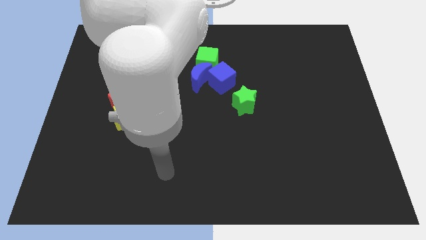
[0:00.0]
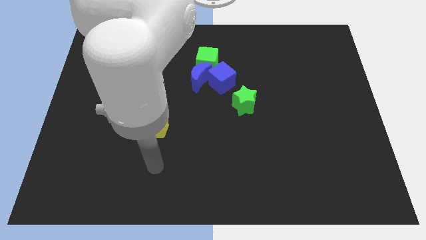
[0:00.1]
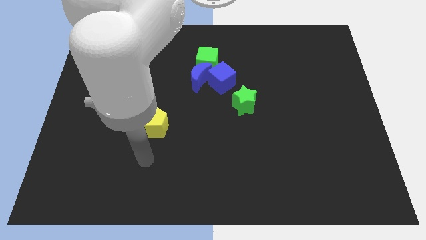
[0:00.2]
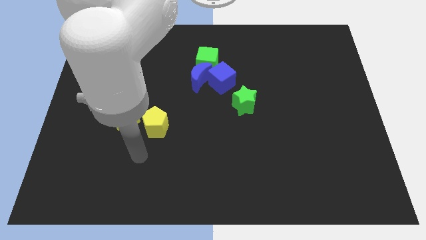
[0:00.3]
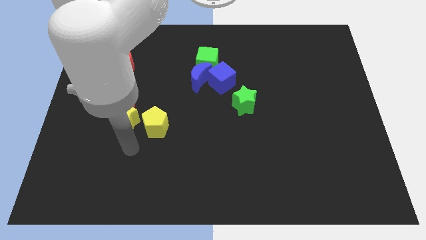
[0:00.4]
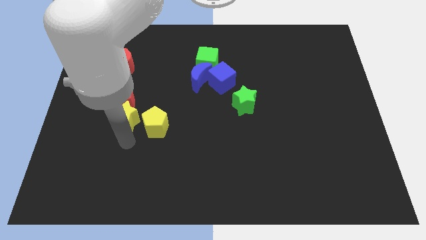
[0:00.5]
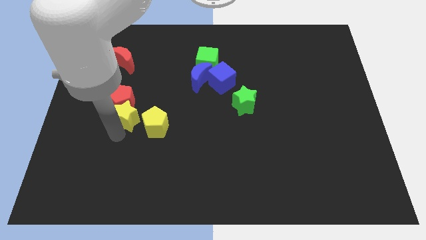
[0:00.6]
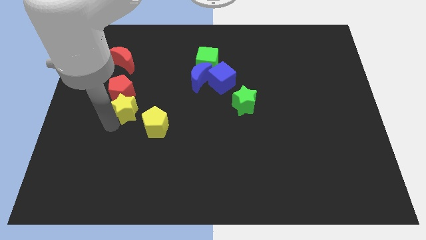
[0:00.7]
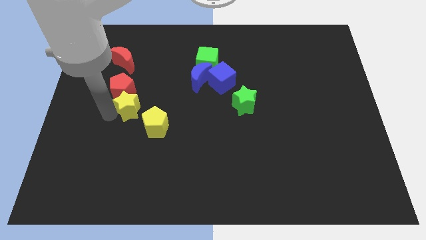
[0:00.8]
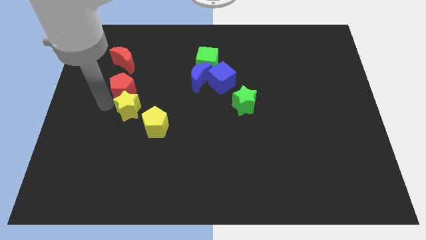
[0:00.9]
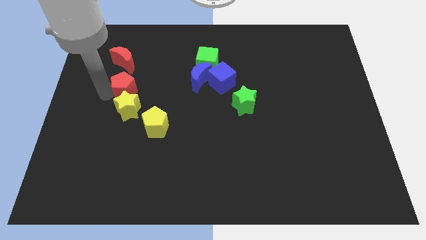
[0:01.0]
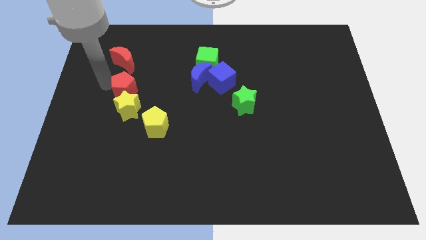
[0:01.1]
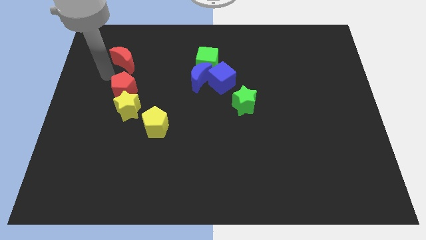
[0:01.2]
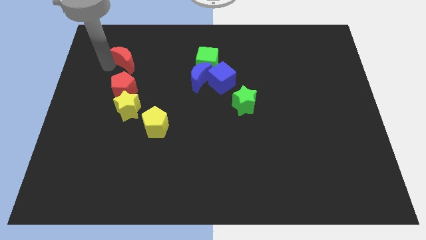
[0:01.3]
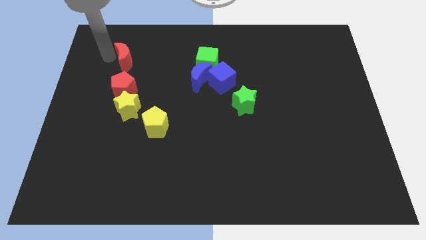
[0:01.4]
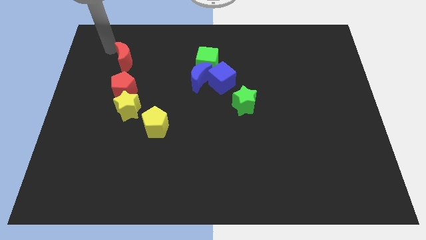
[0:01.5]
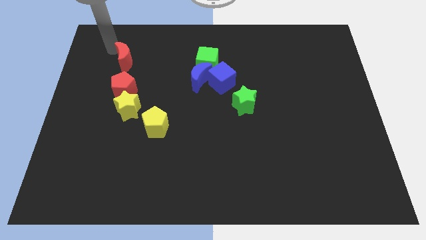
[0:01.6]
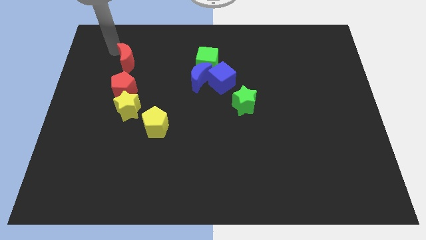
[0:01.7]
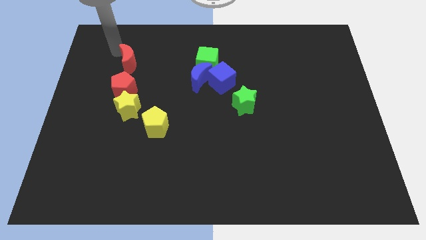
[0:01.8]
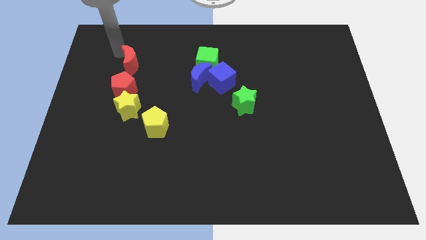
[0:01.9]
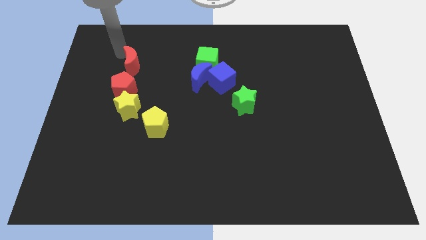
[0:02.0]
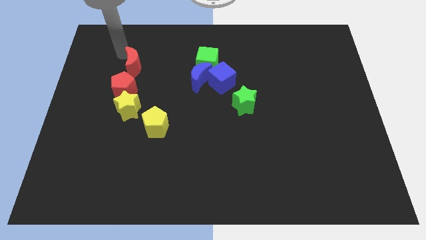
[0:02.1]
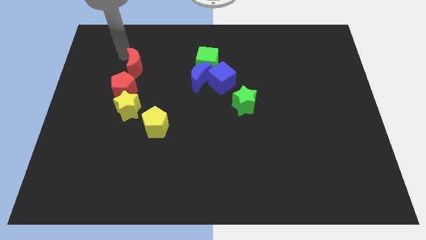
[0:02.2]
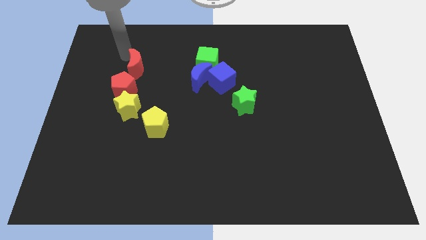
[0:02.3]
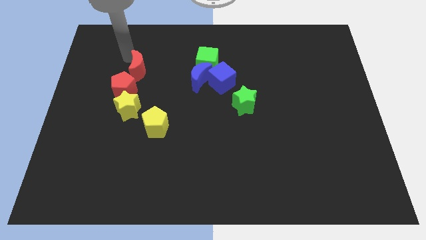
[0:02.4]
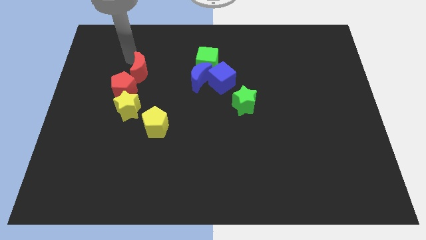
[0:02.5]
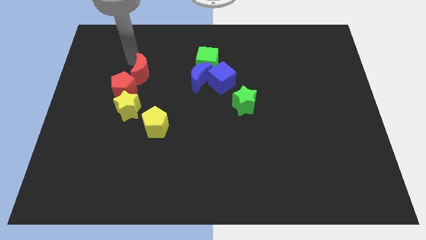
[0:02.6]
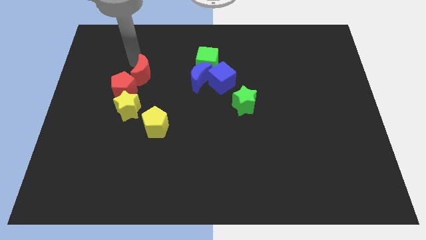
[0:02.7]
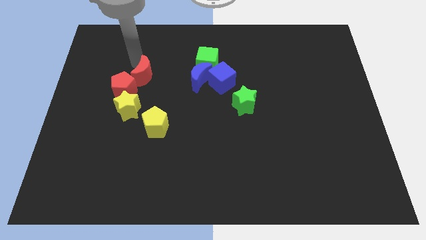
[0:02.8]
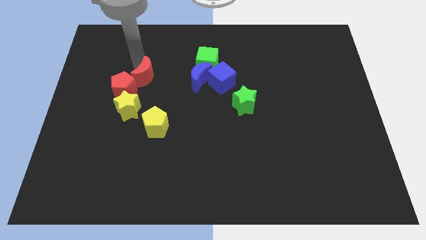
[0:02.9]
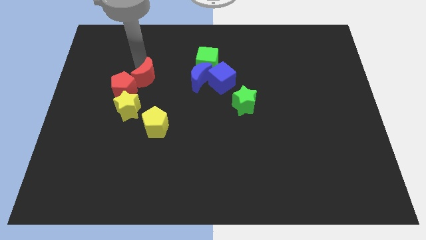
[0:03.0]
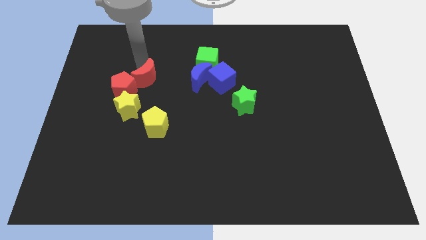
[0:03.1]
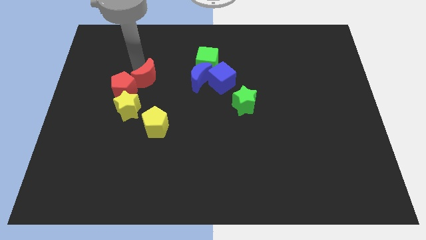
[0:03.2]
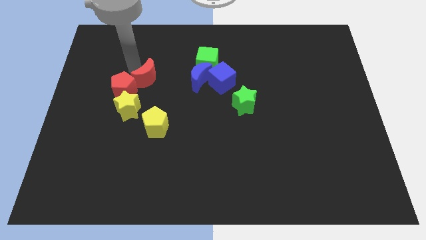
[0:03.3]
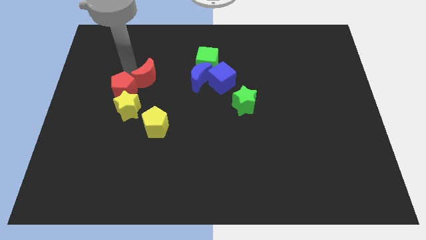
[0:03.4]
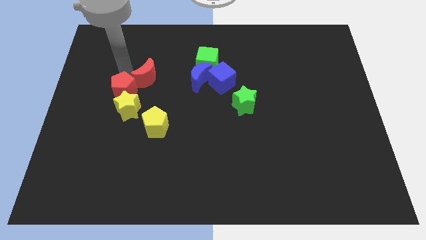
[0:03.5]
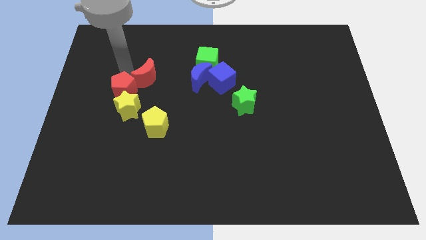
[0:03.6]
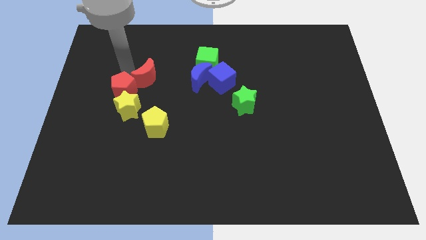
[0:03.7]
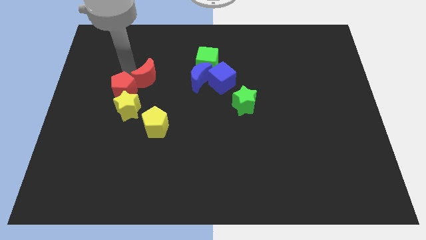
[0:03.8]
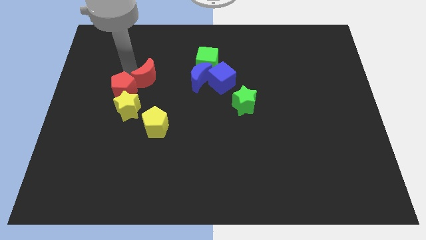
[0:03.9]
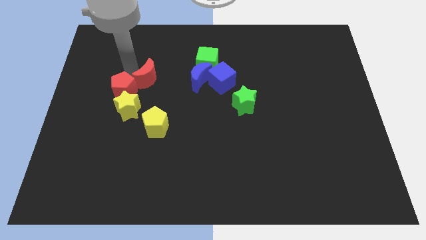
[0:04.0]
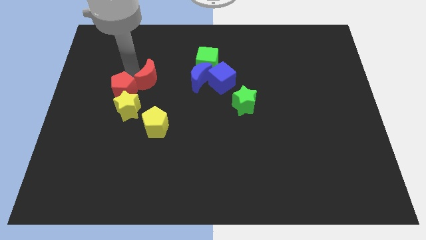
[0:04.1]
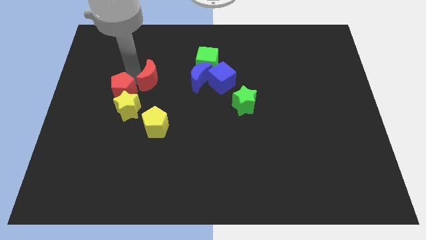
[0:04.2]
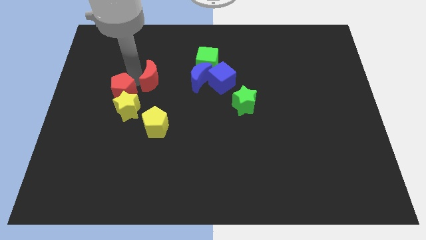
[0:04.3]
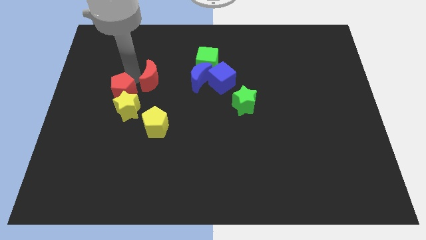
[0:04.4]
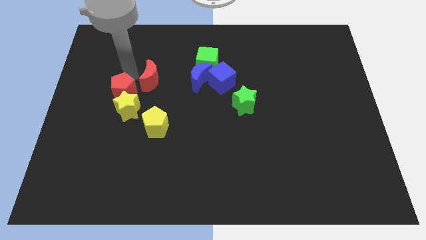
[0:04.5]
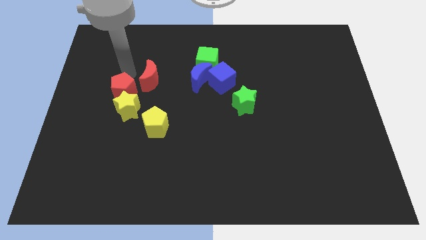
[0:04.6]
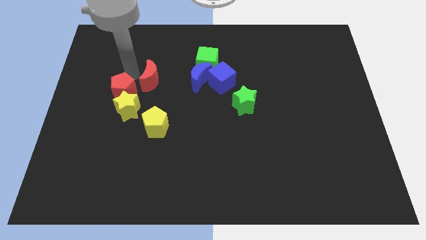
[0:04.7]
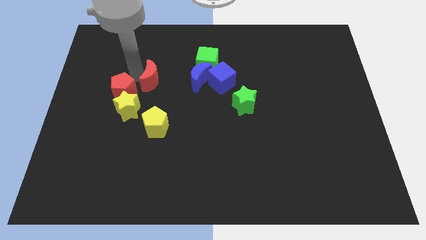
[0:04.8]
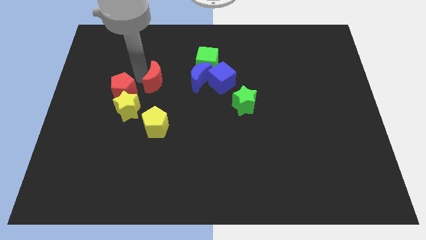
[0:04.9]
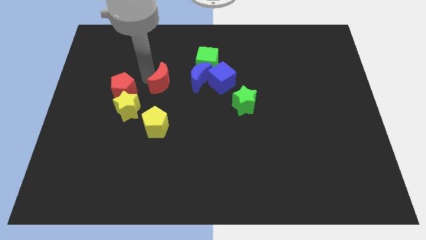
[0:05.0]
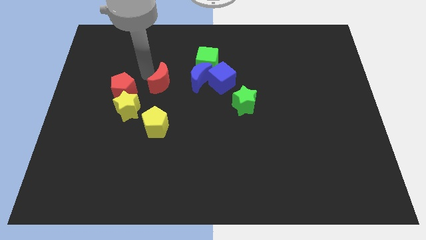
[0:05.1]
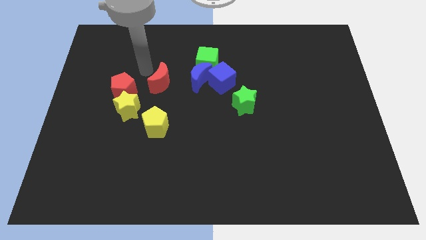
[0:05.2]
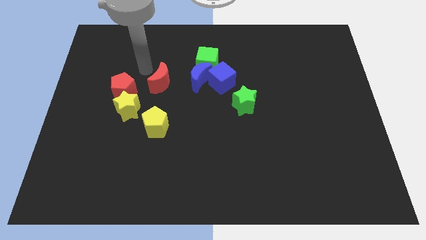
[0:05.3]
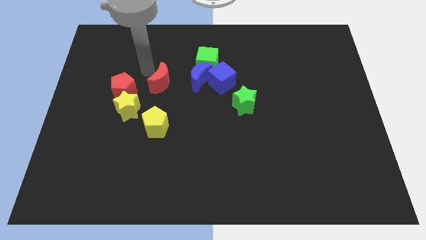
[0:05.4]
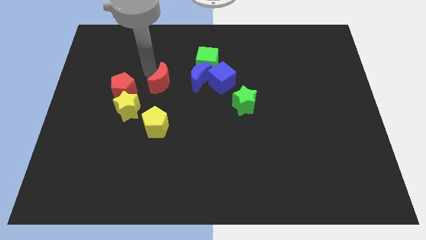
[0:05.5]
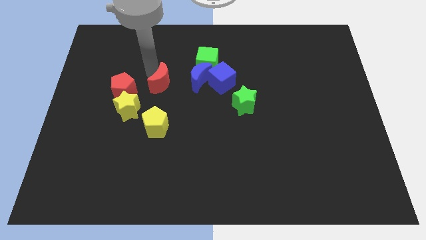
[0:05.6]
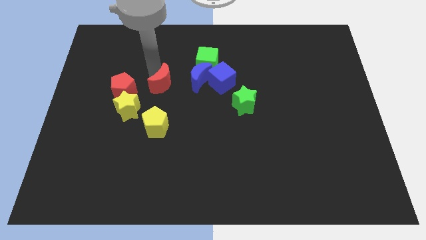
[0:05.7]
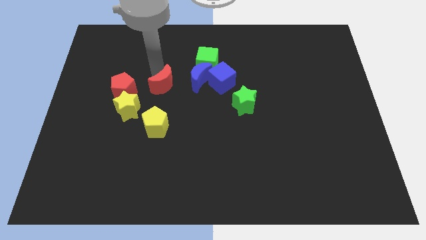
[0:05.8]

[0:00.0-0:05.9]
push the red moon diagonally down and to the left of the blue moon

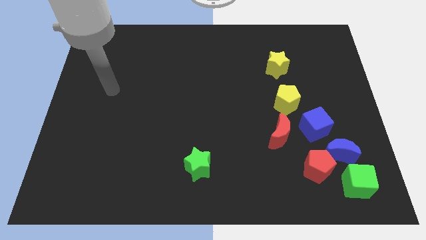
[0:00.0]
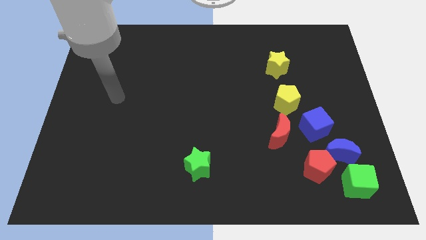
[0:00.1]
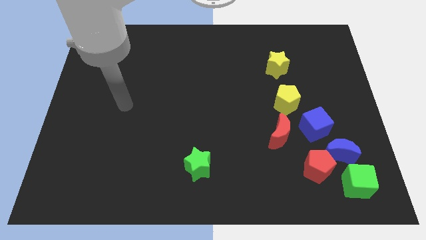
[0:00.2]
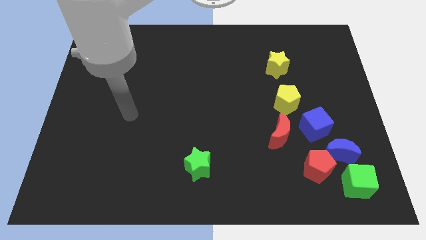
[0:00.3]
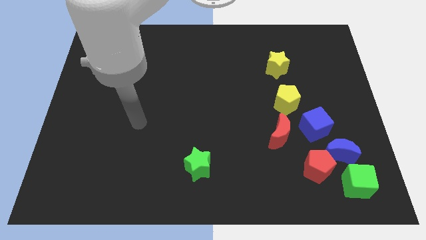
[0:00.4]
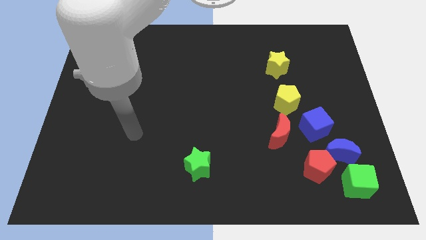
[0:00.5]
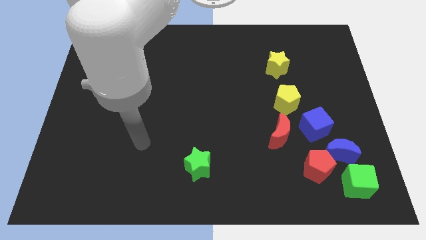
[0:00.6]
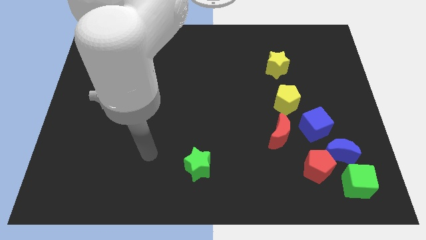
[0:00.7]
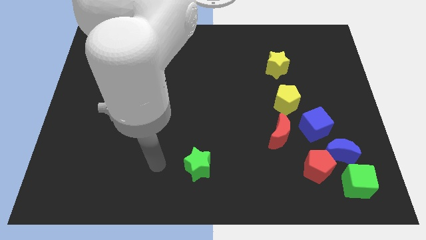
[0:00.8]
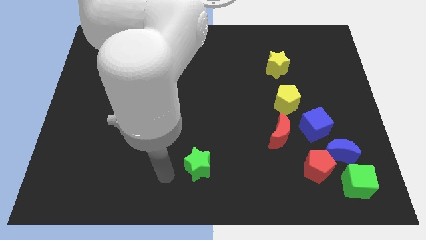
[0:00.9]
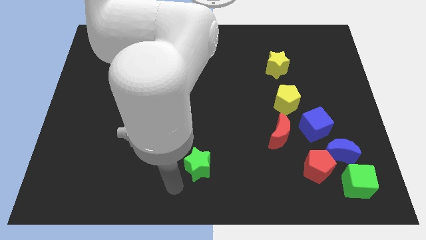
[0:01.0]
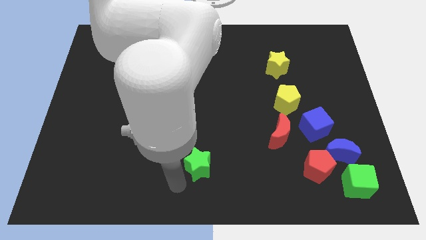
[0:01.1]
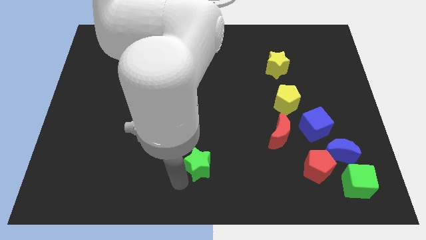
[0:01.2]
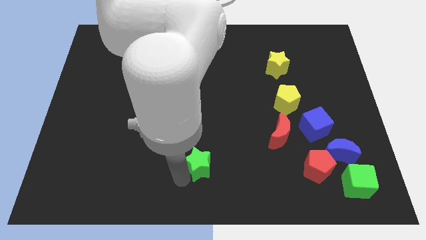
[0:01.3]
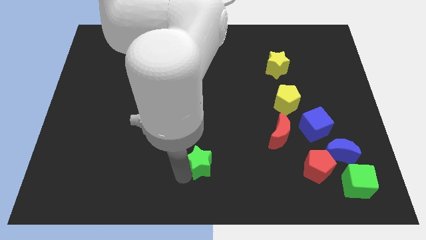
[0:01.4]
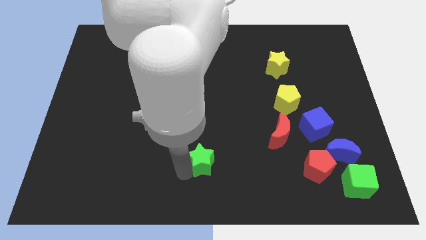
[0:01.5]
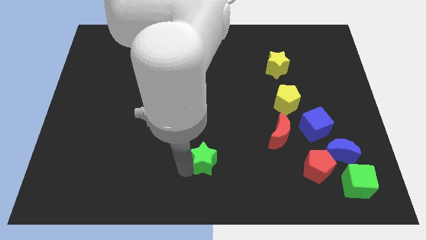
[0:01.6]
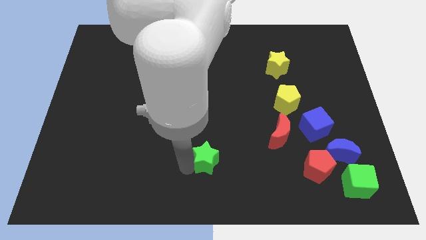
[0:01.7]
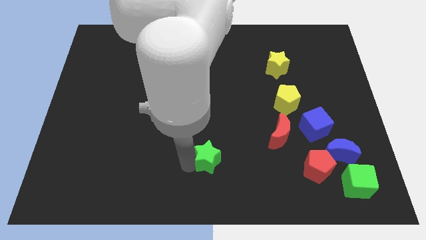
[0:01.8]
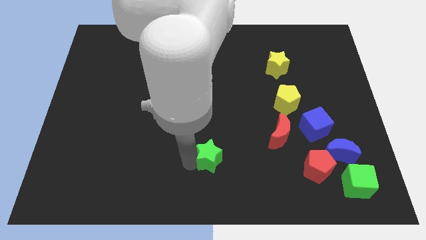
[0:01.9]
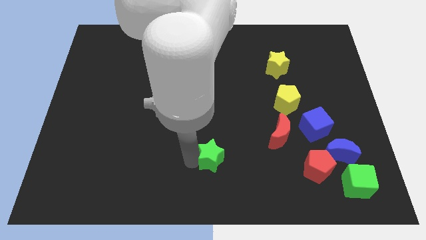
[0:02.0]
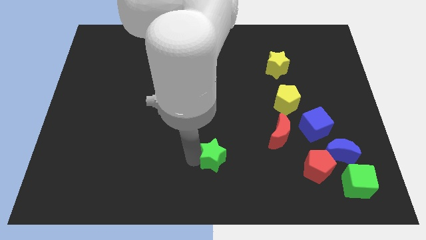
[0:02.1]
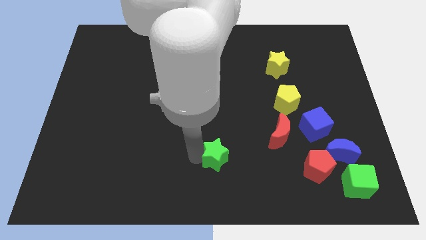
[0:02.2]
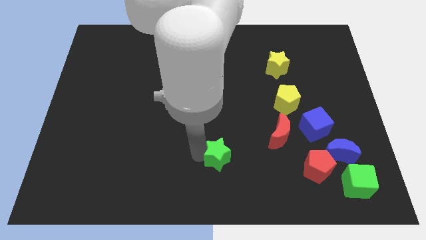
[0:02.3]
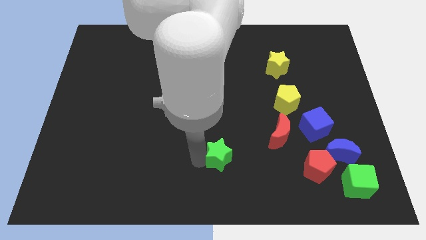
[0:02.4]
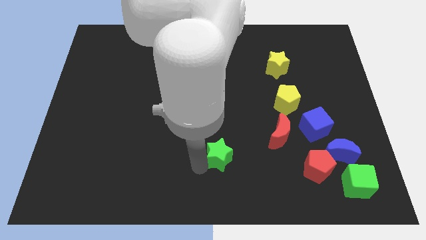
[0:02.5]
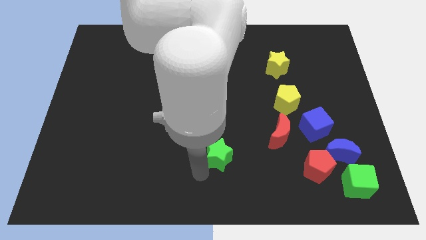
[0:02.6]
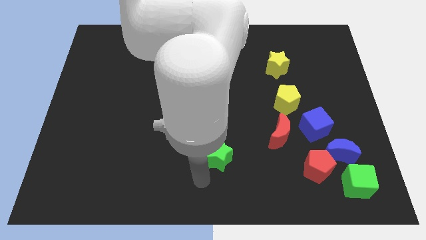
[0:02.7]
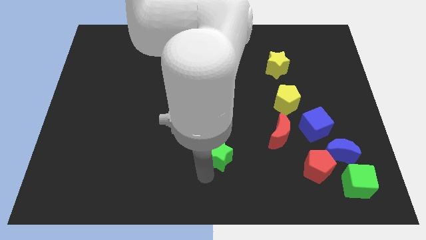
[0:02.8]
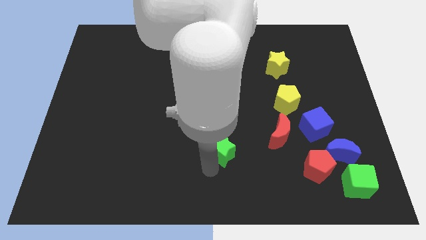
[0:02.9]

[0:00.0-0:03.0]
move the green star just left of the red moon
